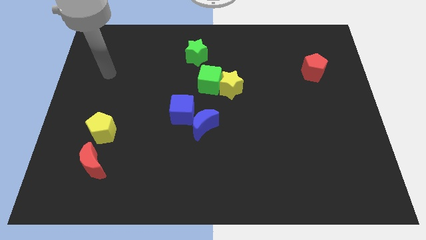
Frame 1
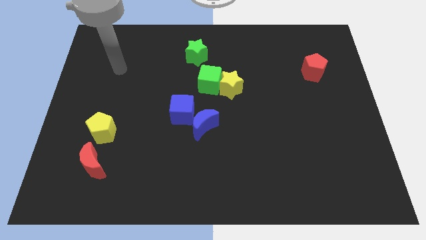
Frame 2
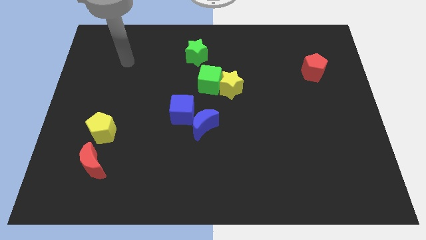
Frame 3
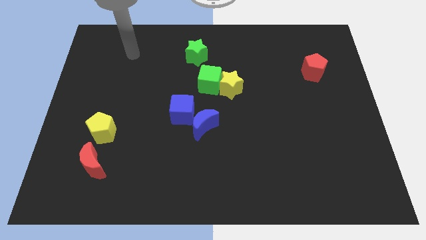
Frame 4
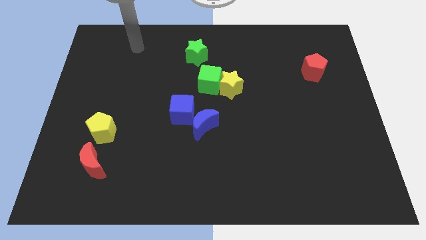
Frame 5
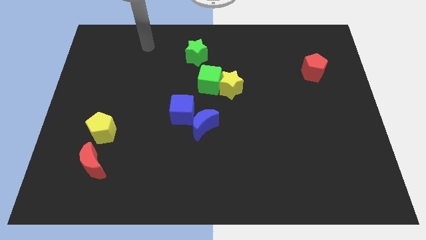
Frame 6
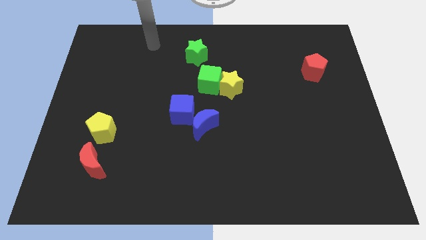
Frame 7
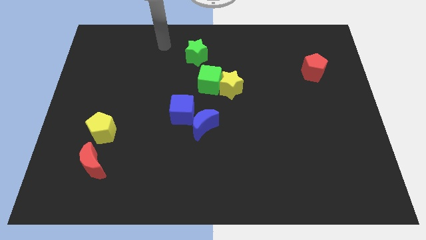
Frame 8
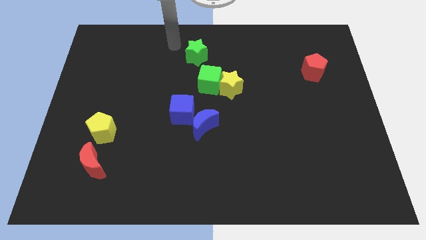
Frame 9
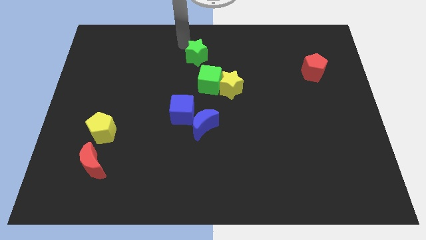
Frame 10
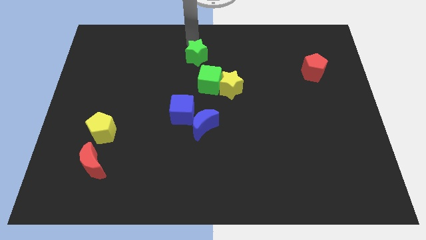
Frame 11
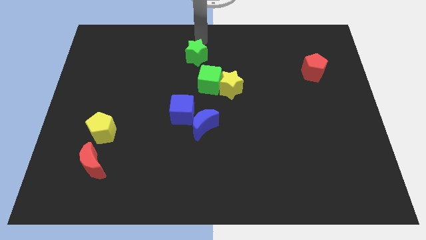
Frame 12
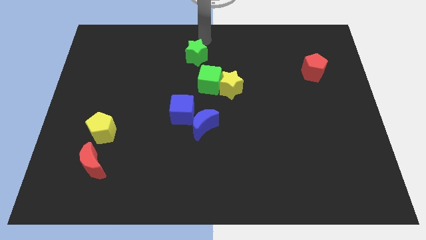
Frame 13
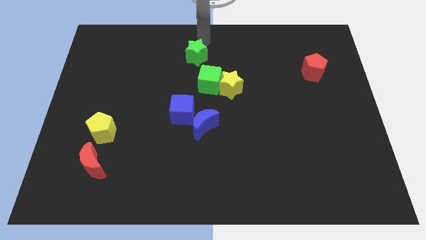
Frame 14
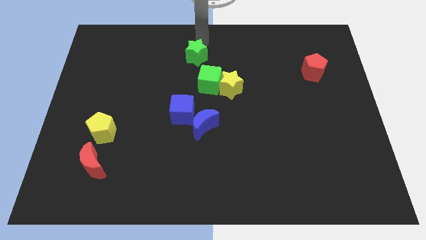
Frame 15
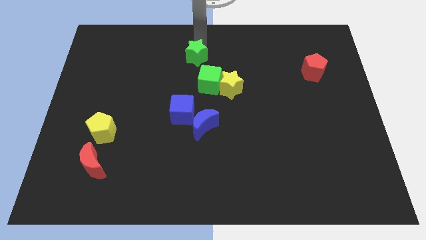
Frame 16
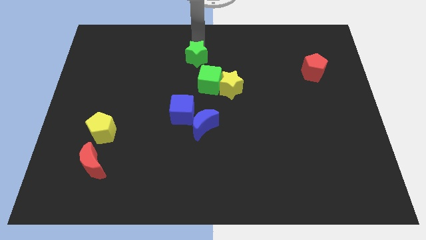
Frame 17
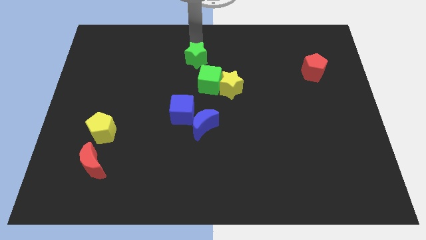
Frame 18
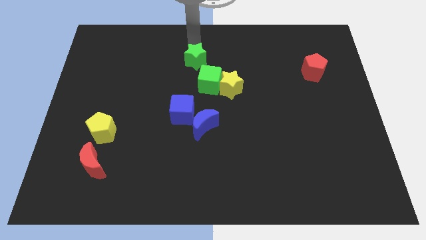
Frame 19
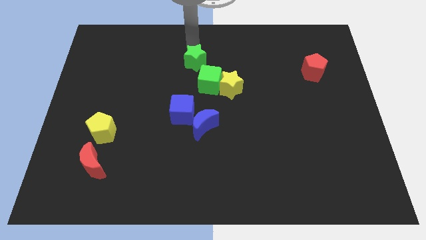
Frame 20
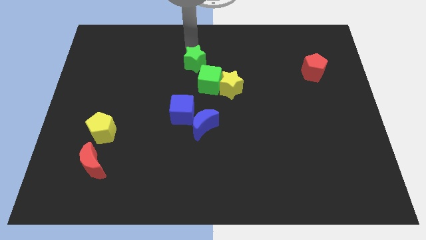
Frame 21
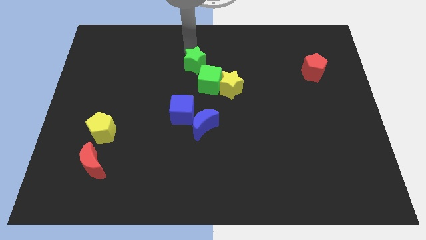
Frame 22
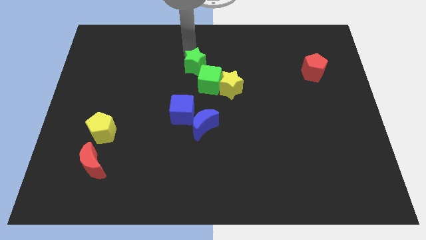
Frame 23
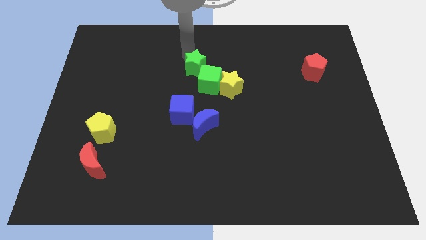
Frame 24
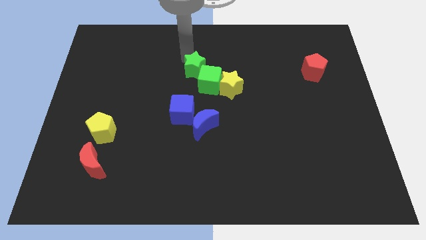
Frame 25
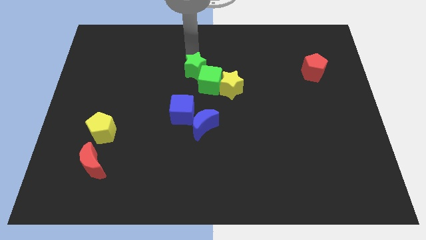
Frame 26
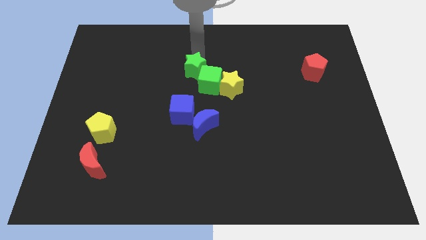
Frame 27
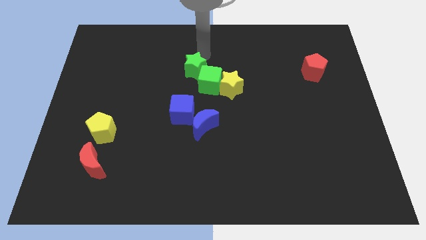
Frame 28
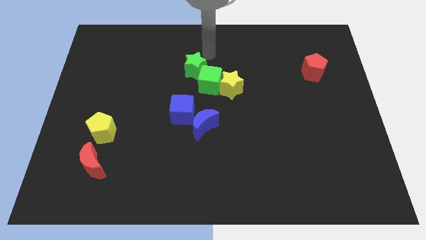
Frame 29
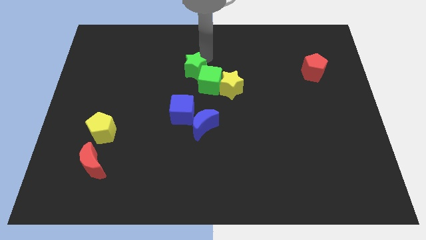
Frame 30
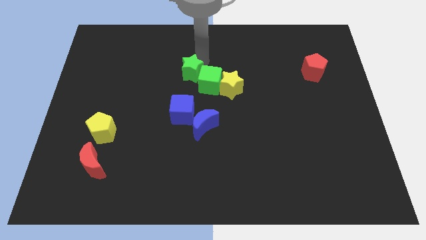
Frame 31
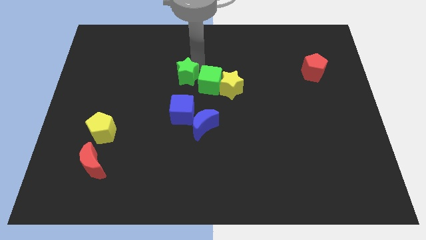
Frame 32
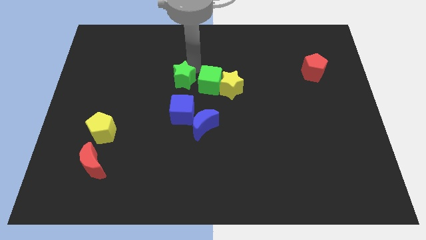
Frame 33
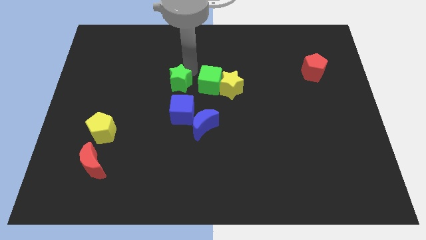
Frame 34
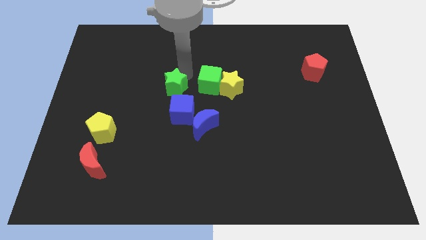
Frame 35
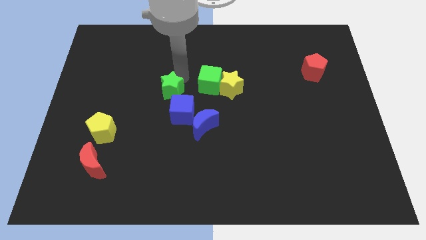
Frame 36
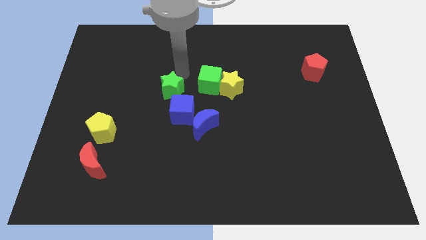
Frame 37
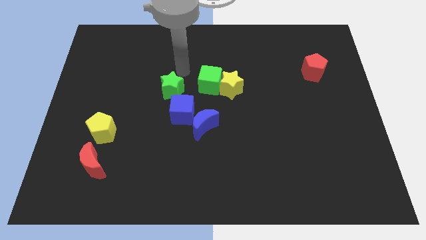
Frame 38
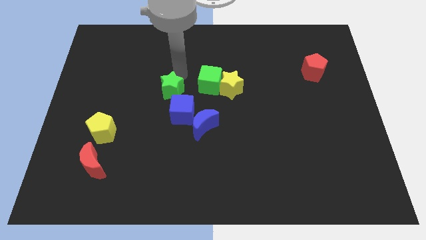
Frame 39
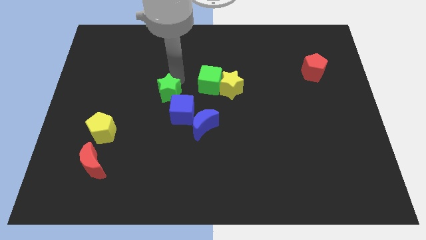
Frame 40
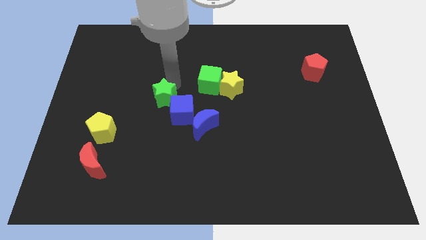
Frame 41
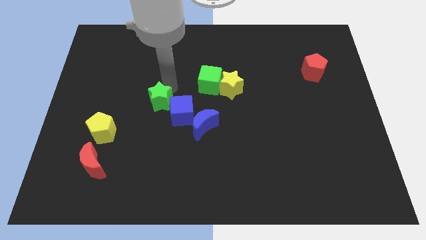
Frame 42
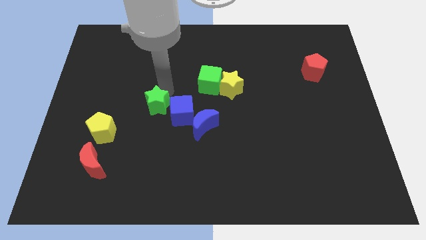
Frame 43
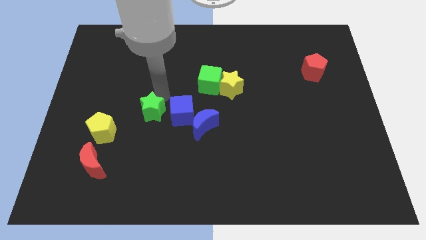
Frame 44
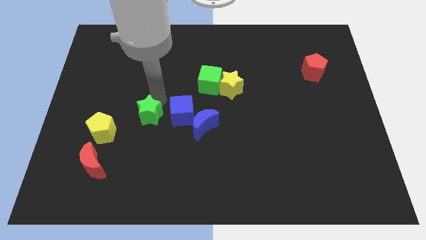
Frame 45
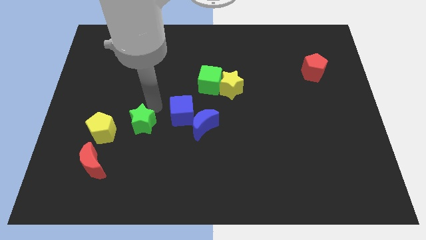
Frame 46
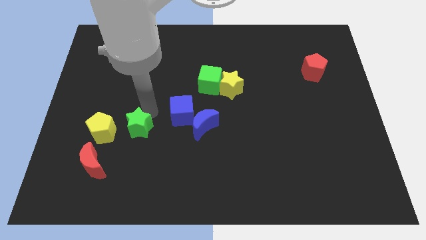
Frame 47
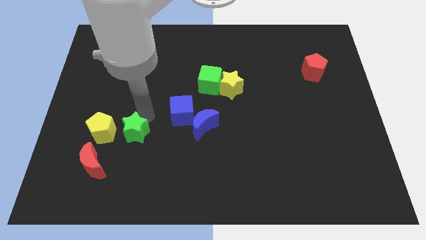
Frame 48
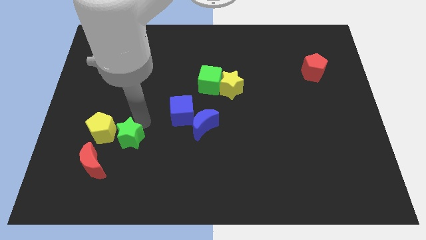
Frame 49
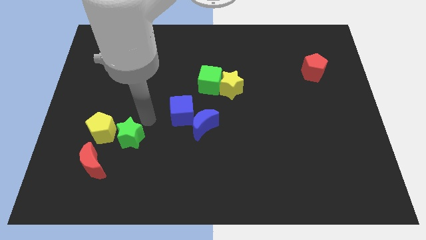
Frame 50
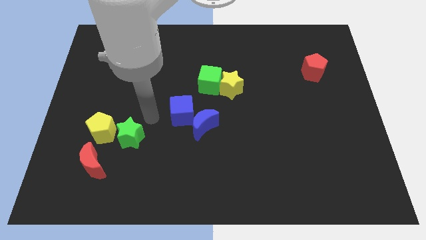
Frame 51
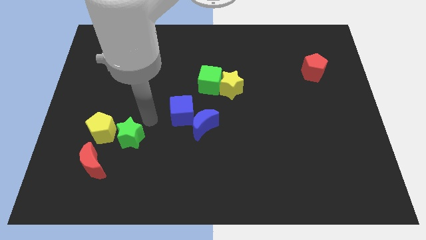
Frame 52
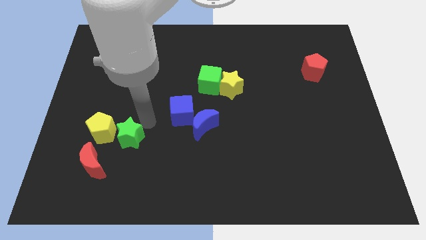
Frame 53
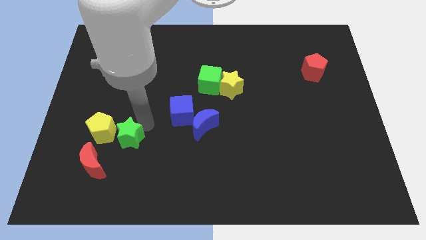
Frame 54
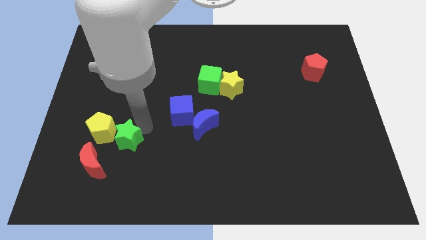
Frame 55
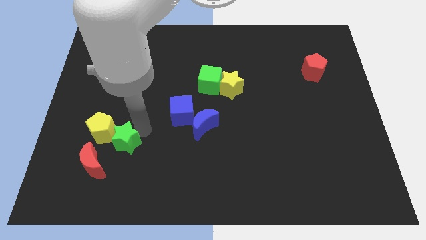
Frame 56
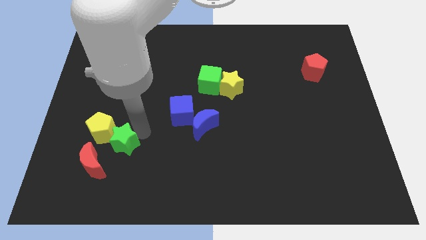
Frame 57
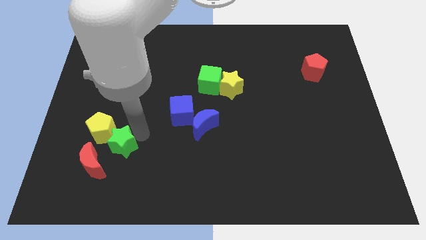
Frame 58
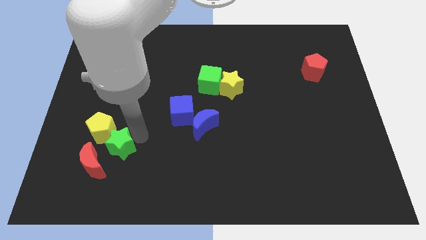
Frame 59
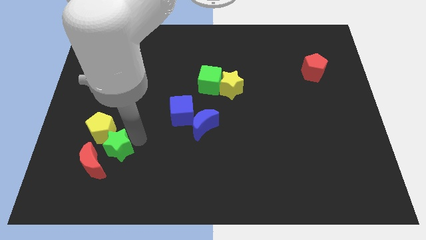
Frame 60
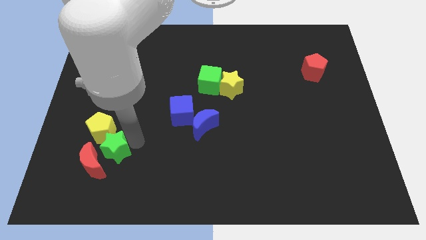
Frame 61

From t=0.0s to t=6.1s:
slide the green star next to the red moon

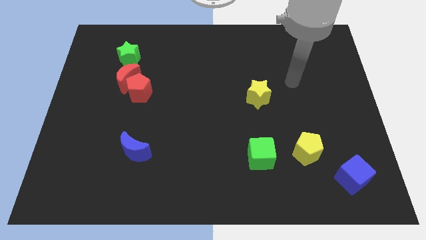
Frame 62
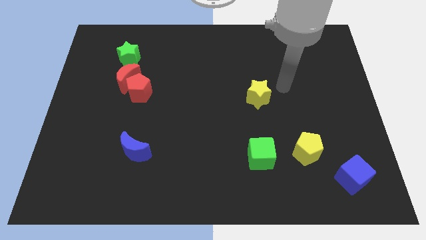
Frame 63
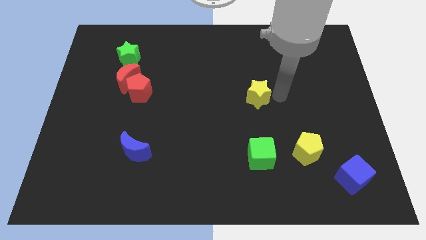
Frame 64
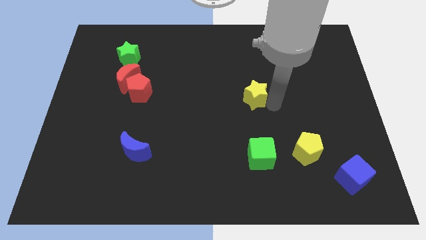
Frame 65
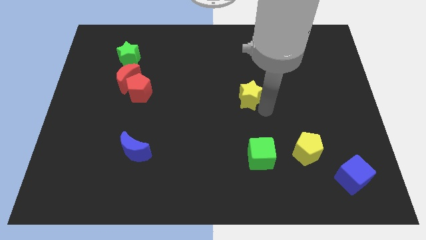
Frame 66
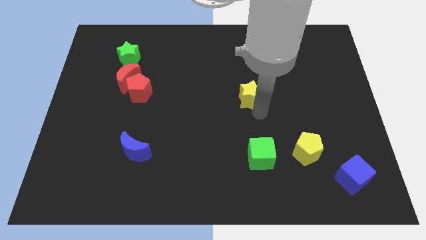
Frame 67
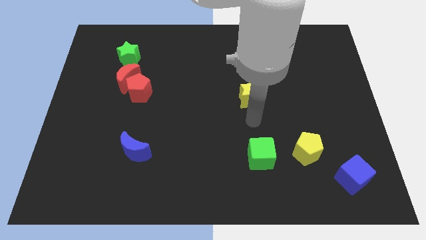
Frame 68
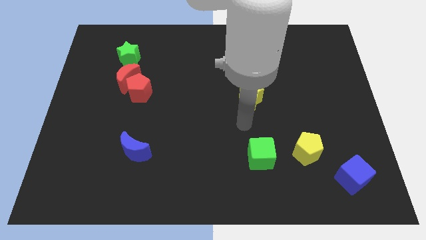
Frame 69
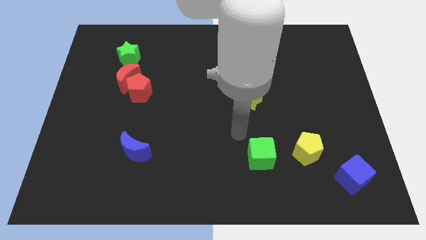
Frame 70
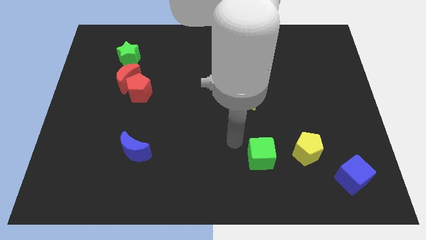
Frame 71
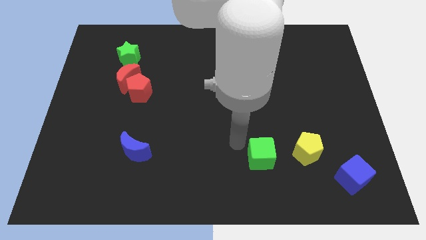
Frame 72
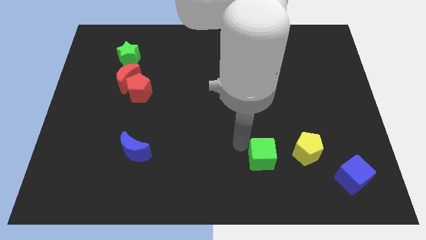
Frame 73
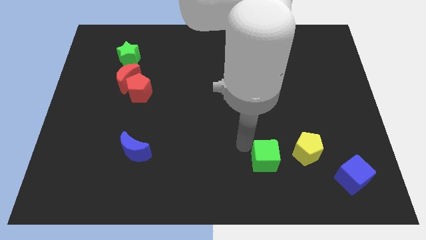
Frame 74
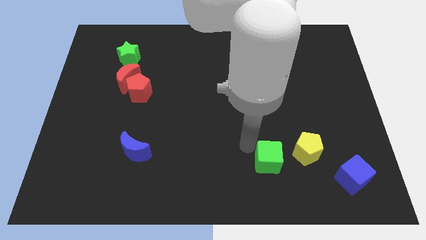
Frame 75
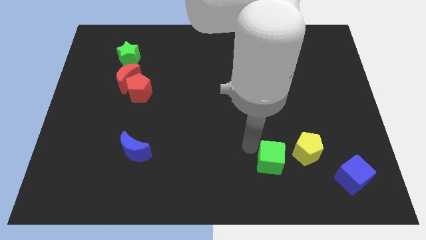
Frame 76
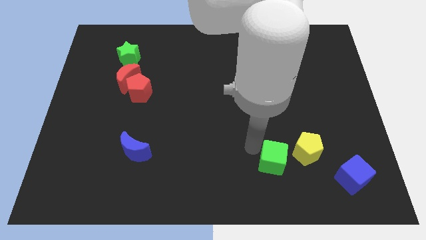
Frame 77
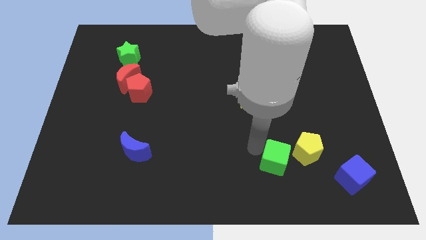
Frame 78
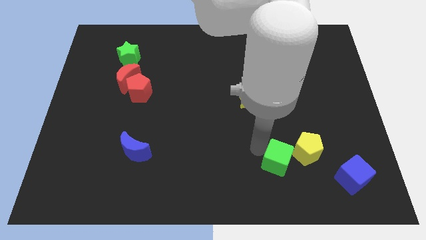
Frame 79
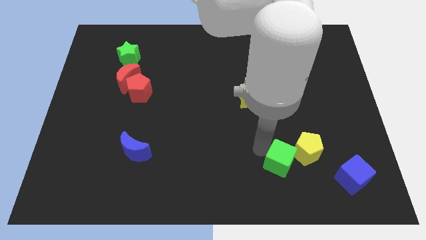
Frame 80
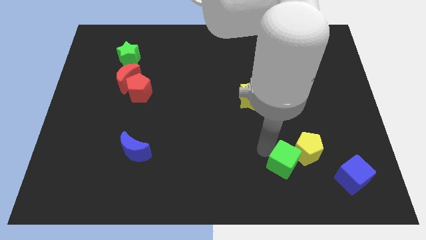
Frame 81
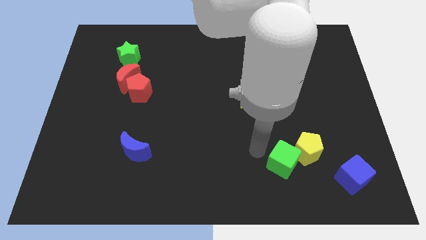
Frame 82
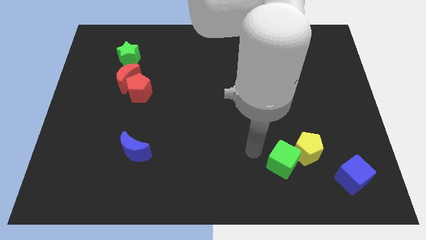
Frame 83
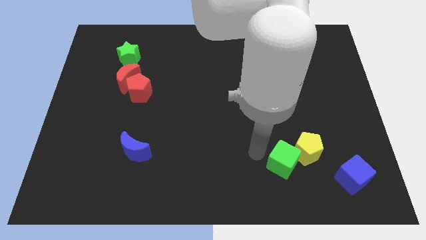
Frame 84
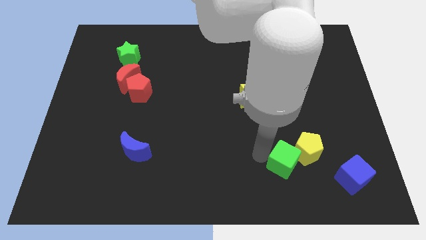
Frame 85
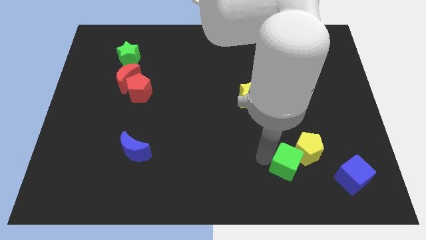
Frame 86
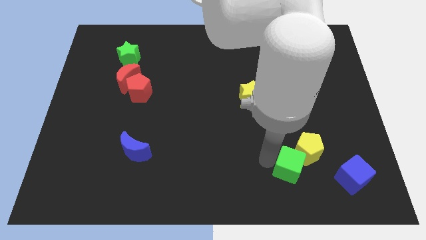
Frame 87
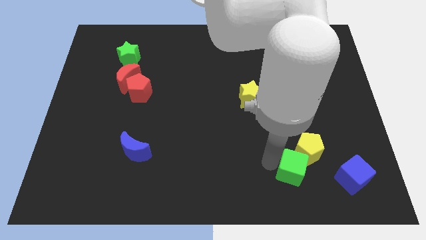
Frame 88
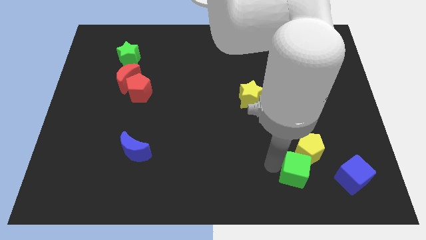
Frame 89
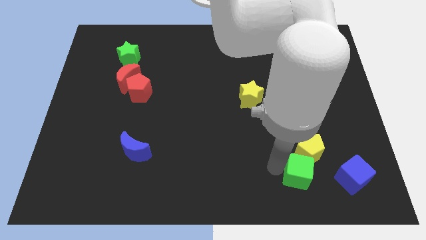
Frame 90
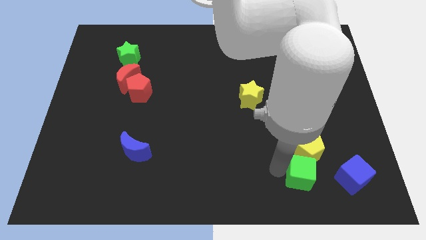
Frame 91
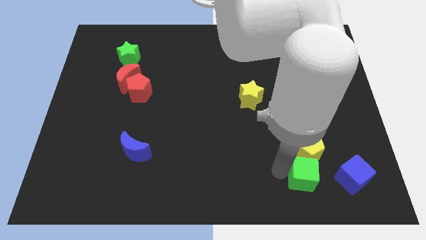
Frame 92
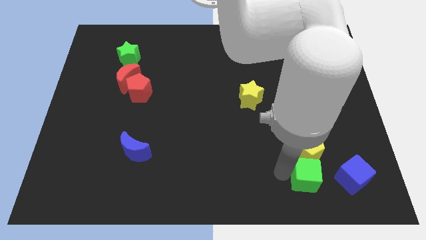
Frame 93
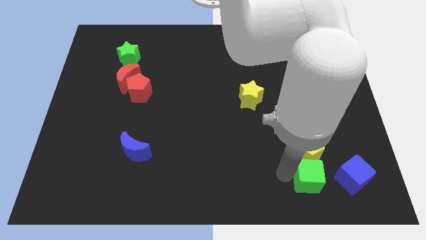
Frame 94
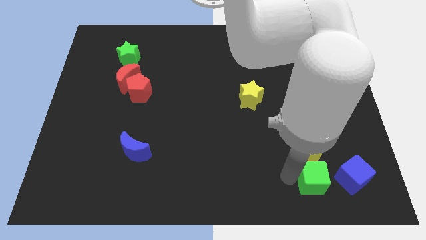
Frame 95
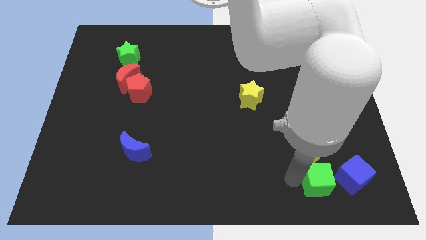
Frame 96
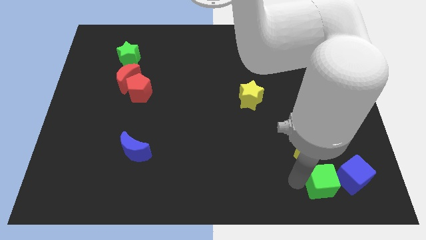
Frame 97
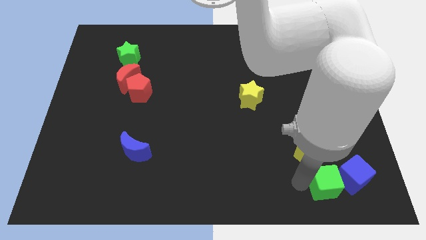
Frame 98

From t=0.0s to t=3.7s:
put the green cube towards the blue cube
